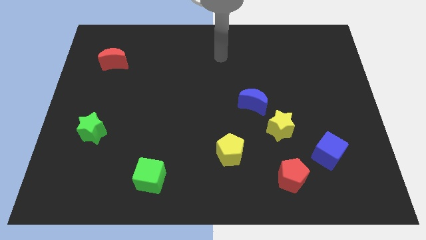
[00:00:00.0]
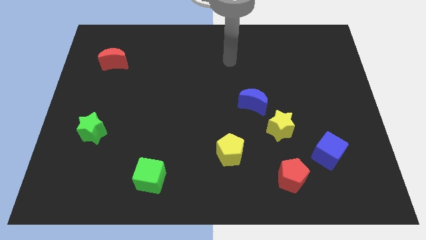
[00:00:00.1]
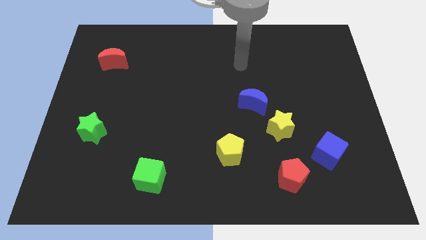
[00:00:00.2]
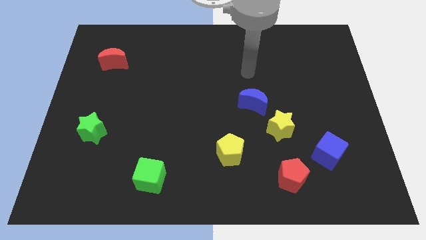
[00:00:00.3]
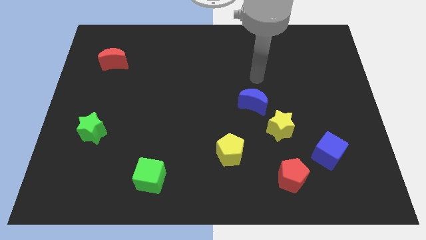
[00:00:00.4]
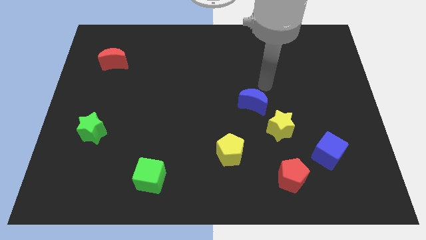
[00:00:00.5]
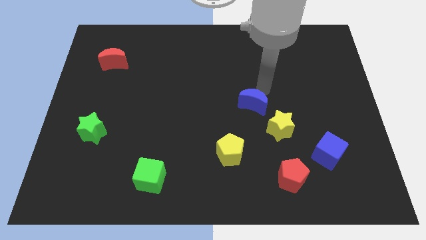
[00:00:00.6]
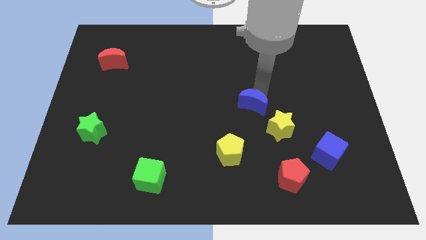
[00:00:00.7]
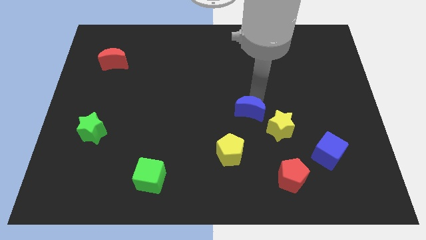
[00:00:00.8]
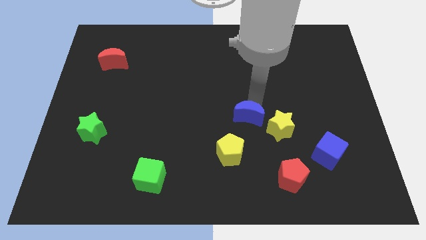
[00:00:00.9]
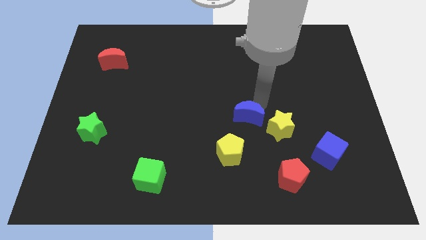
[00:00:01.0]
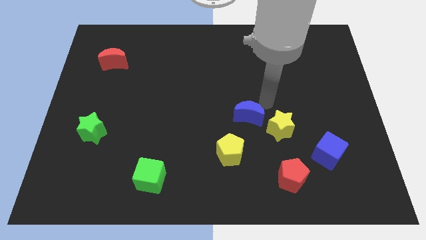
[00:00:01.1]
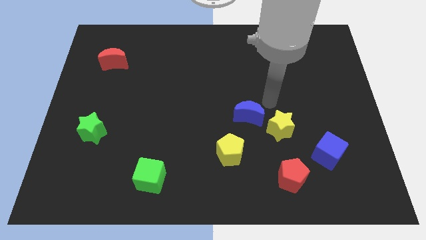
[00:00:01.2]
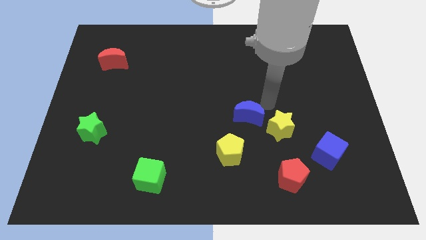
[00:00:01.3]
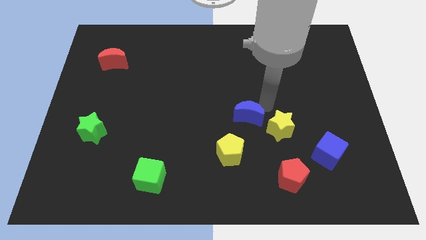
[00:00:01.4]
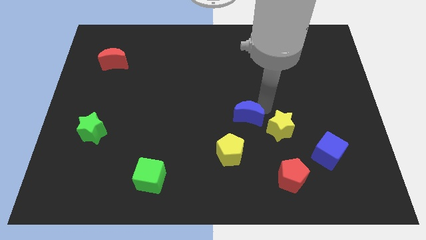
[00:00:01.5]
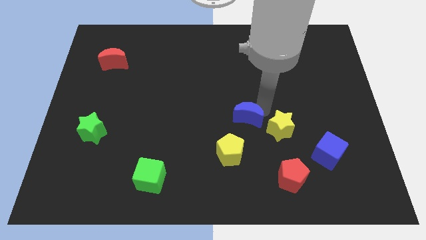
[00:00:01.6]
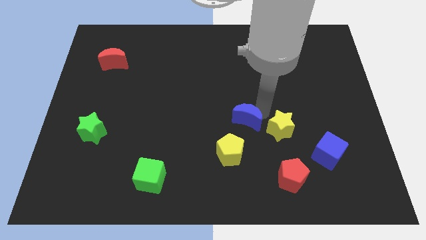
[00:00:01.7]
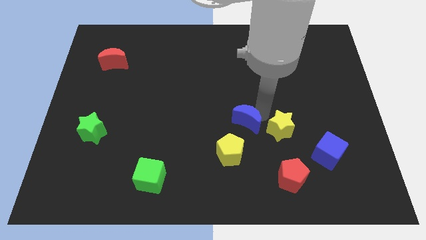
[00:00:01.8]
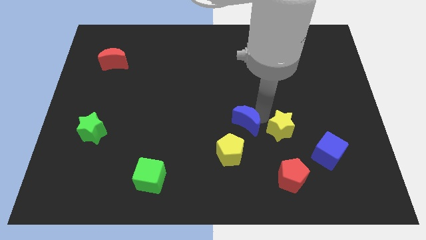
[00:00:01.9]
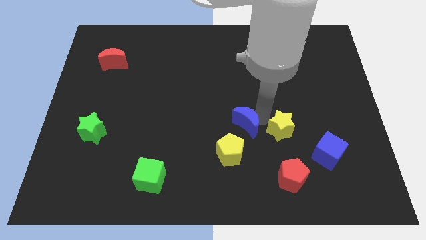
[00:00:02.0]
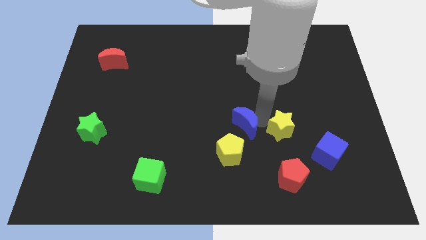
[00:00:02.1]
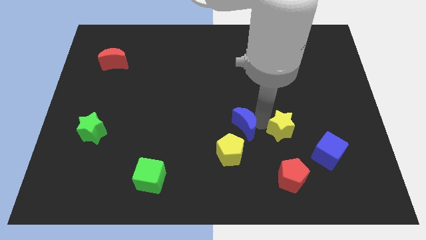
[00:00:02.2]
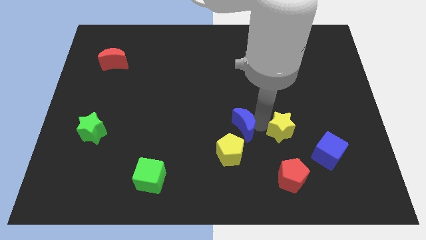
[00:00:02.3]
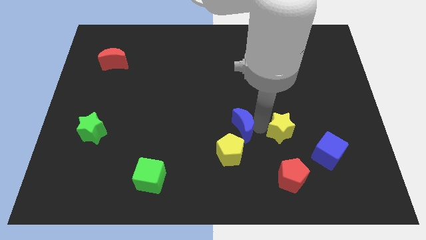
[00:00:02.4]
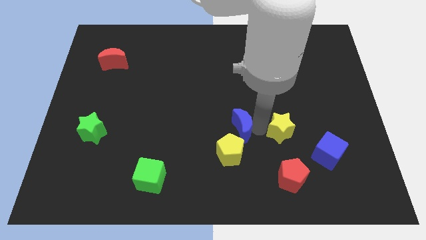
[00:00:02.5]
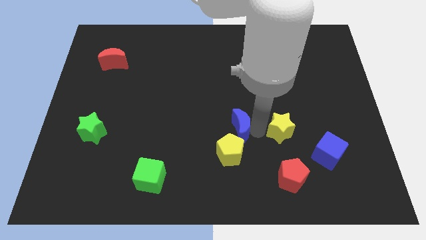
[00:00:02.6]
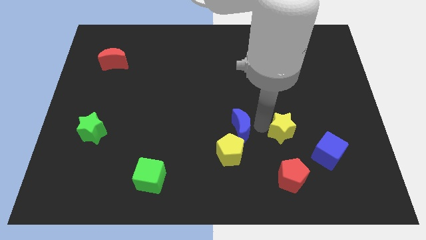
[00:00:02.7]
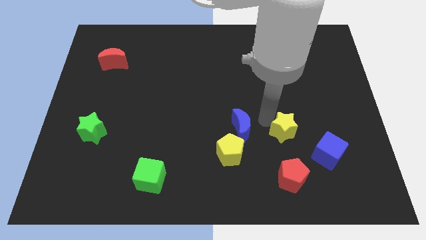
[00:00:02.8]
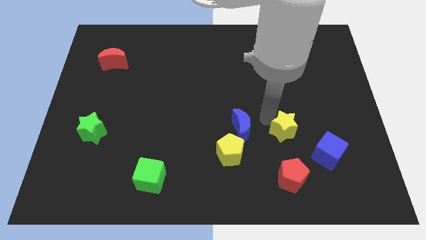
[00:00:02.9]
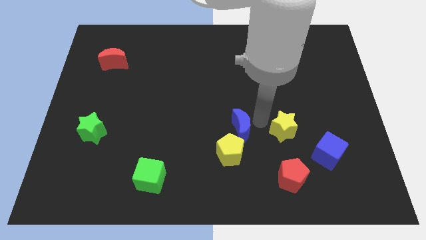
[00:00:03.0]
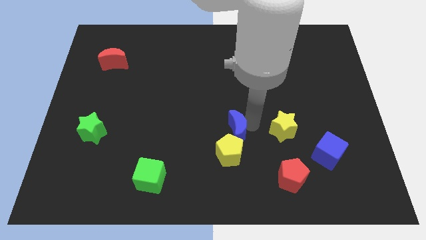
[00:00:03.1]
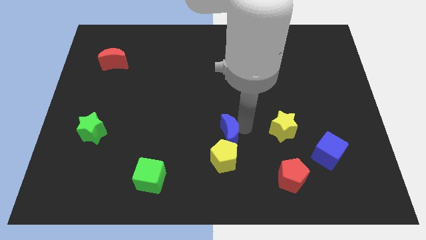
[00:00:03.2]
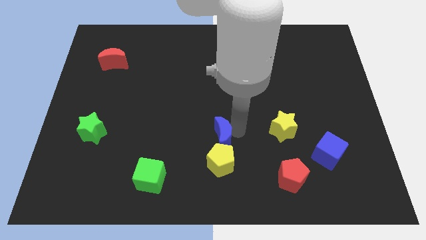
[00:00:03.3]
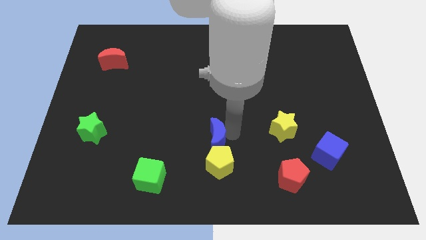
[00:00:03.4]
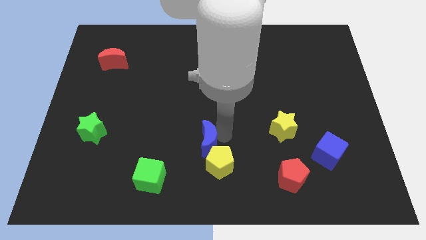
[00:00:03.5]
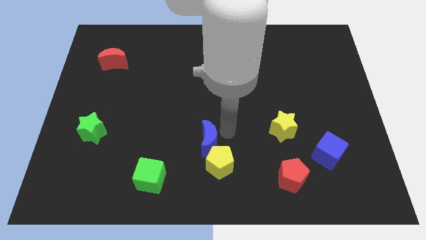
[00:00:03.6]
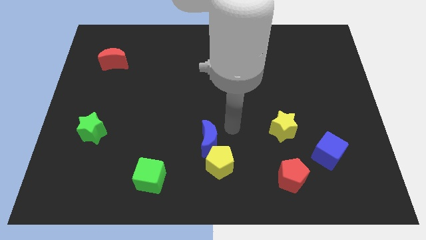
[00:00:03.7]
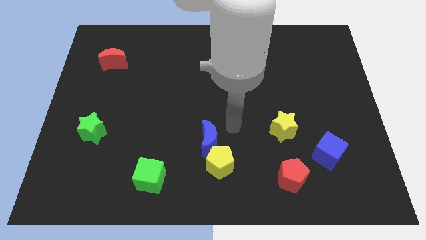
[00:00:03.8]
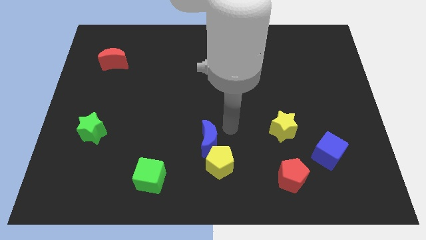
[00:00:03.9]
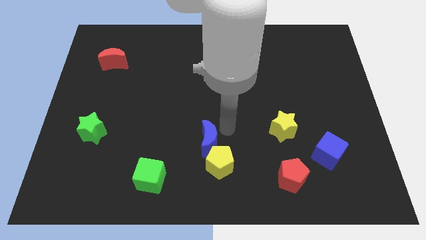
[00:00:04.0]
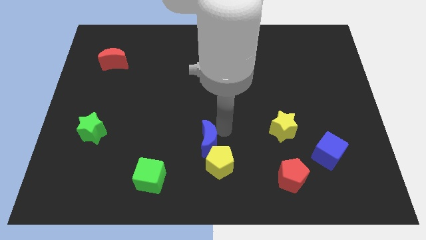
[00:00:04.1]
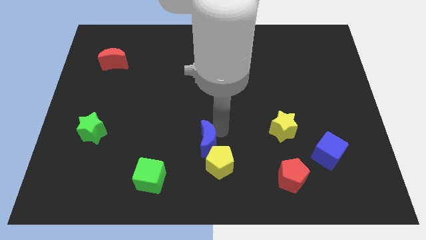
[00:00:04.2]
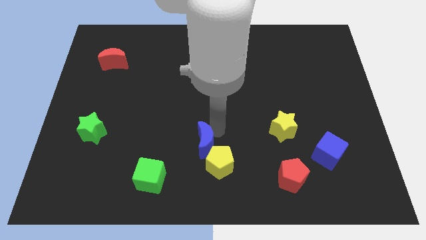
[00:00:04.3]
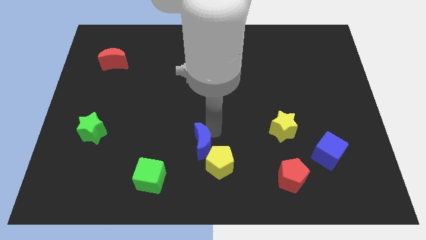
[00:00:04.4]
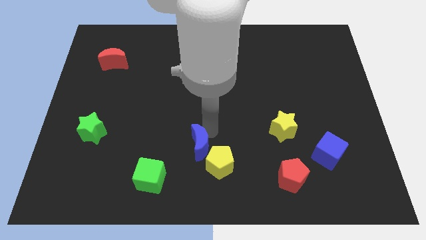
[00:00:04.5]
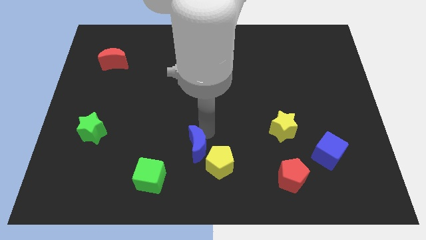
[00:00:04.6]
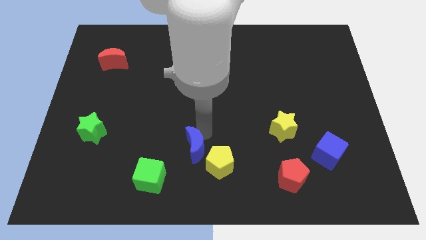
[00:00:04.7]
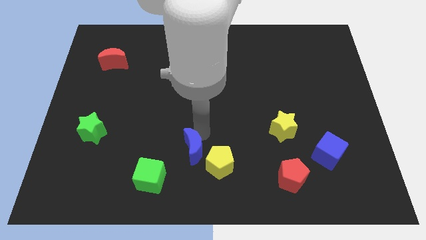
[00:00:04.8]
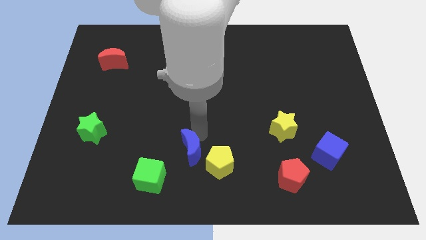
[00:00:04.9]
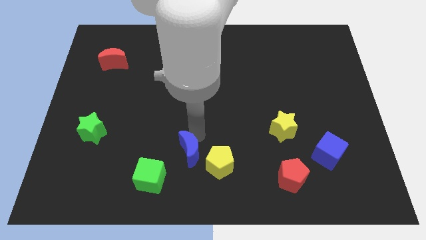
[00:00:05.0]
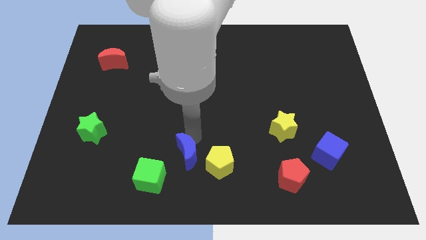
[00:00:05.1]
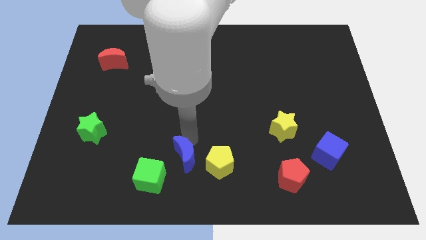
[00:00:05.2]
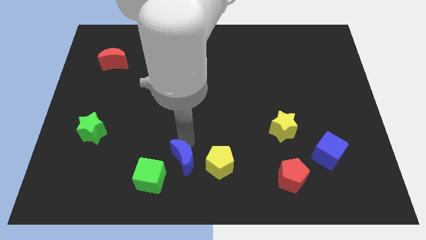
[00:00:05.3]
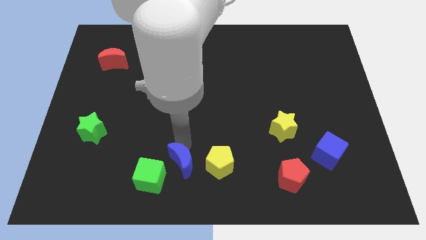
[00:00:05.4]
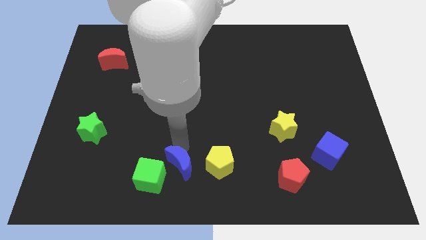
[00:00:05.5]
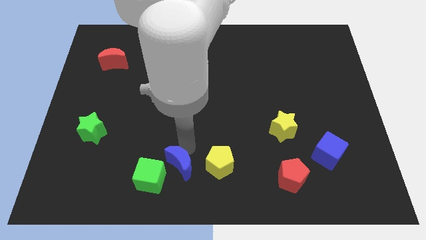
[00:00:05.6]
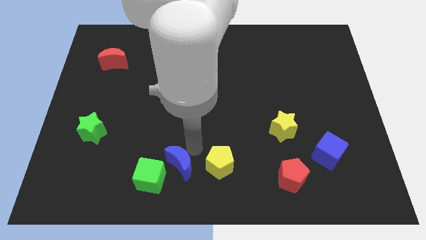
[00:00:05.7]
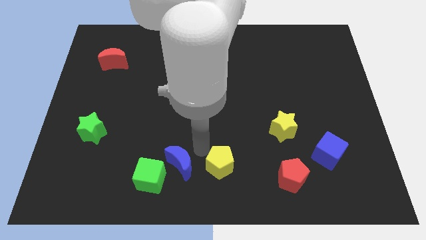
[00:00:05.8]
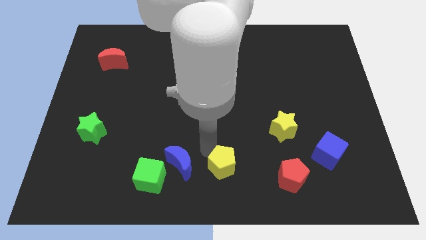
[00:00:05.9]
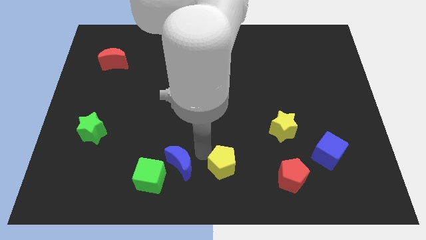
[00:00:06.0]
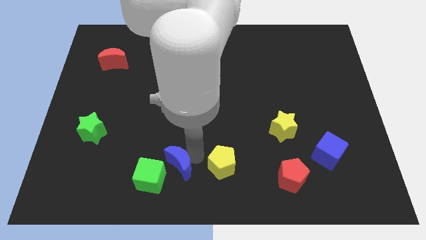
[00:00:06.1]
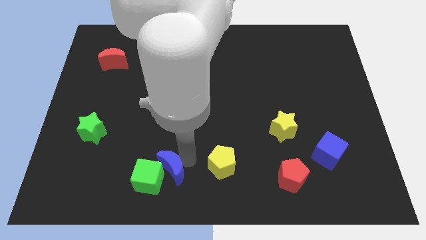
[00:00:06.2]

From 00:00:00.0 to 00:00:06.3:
push the blue moon towards the green cube

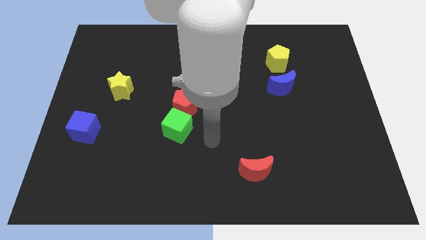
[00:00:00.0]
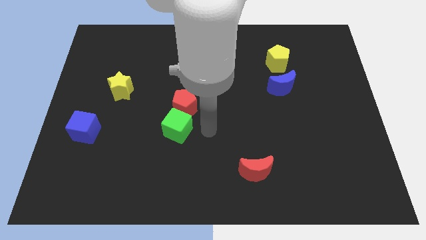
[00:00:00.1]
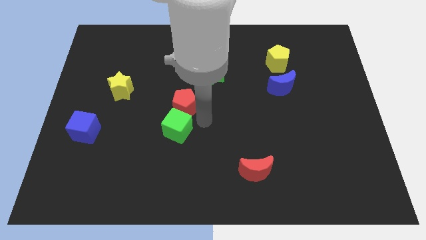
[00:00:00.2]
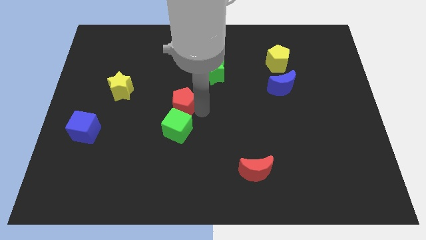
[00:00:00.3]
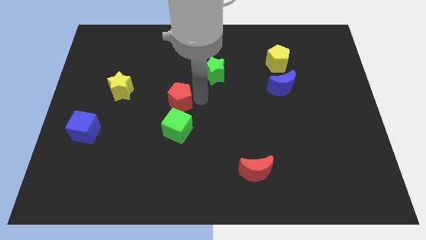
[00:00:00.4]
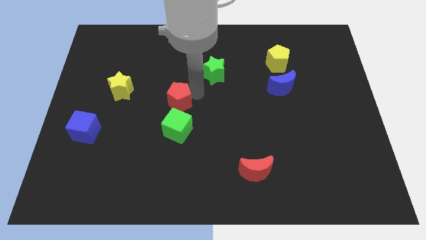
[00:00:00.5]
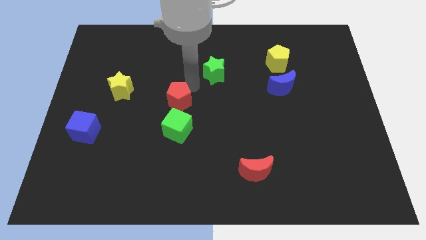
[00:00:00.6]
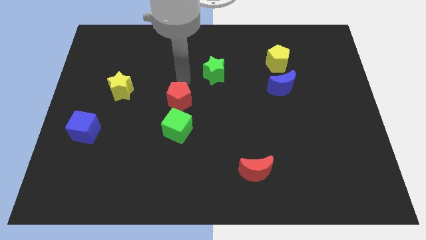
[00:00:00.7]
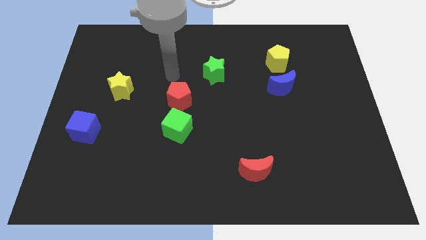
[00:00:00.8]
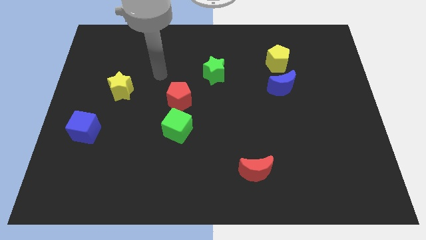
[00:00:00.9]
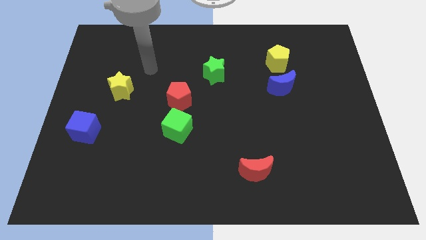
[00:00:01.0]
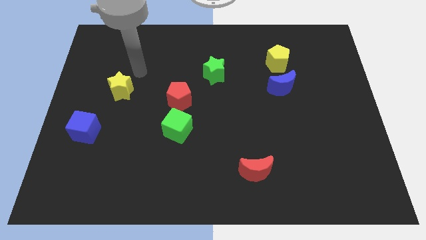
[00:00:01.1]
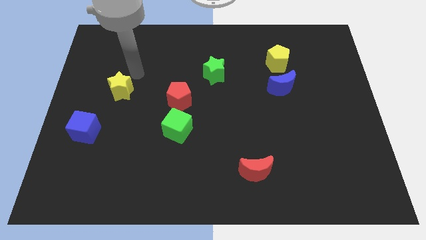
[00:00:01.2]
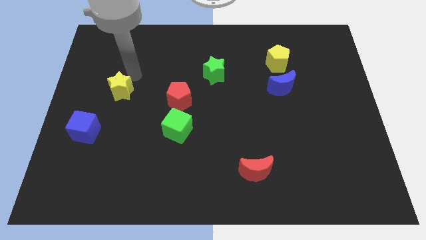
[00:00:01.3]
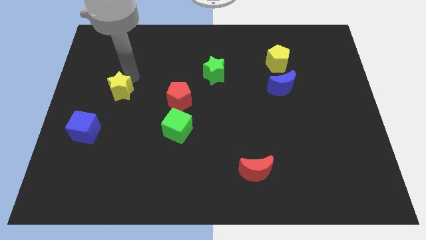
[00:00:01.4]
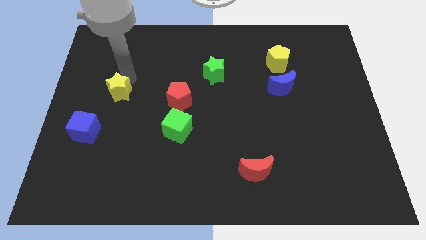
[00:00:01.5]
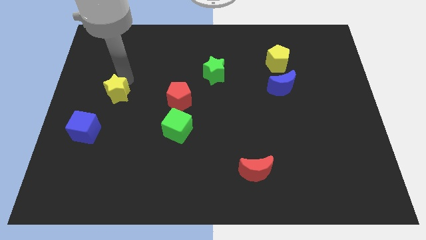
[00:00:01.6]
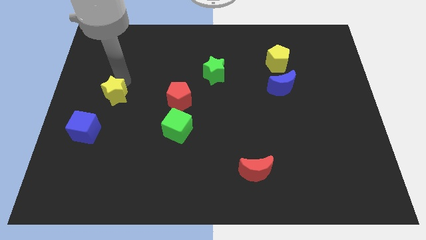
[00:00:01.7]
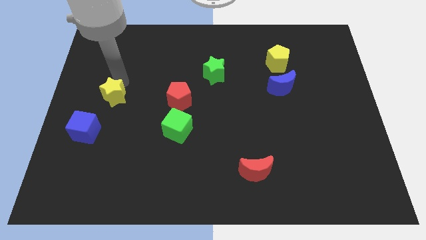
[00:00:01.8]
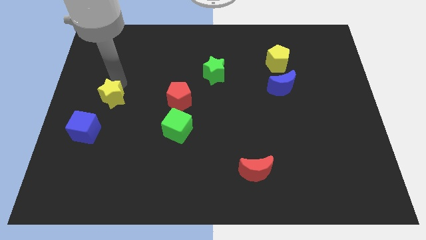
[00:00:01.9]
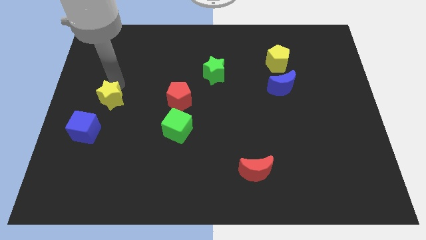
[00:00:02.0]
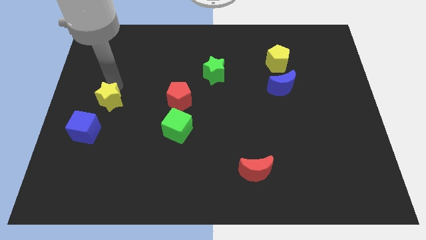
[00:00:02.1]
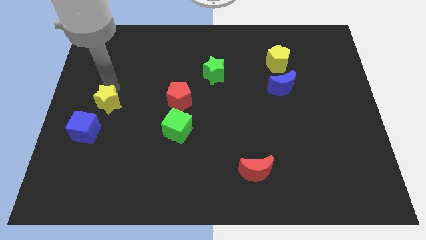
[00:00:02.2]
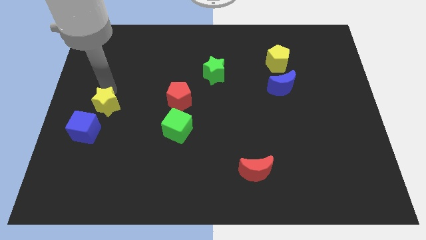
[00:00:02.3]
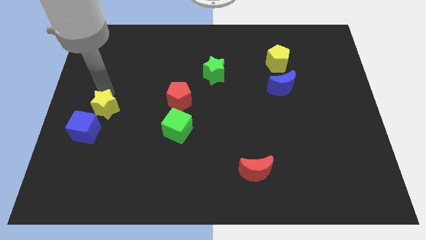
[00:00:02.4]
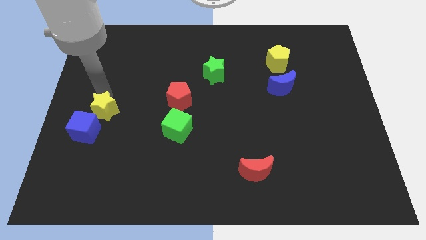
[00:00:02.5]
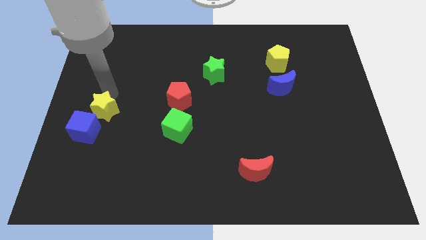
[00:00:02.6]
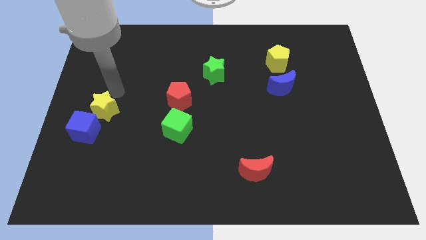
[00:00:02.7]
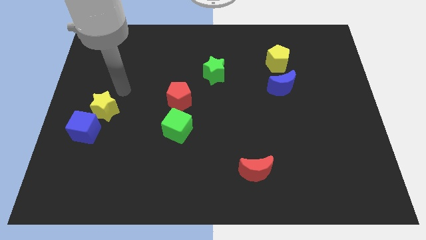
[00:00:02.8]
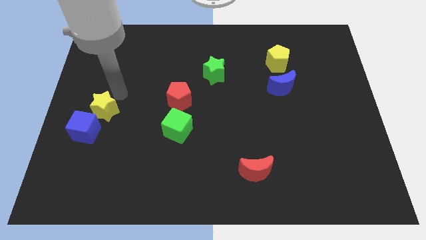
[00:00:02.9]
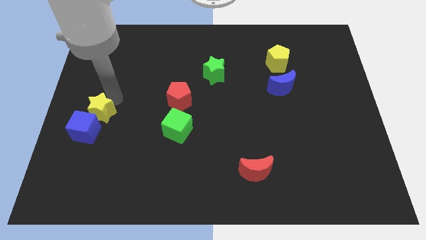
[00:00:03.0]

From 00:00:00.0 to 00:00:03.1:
put the yellow star next to the blue cube
